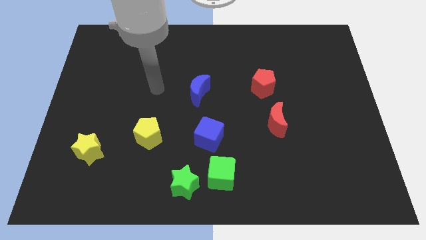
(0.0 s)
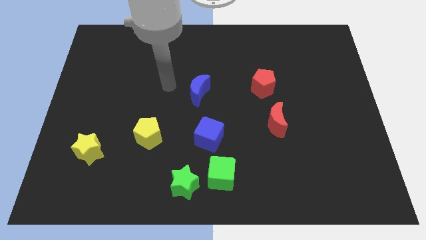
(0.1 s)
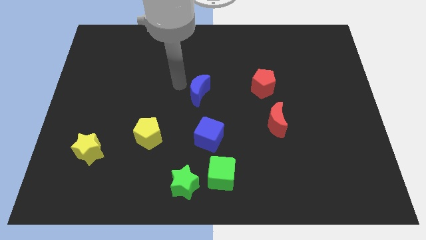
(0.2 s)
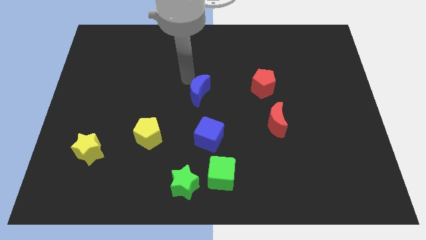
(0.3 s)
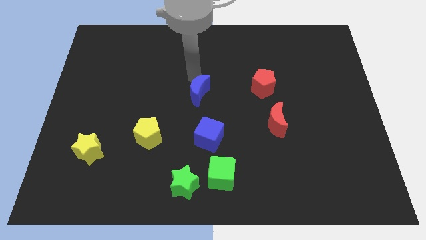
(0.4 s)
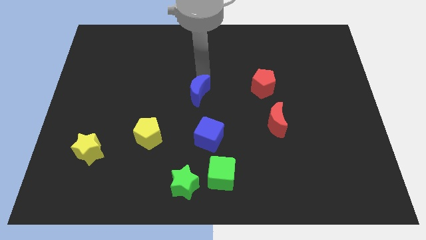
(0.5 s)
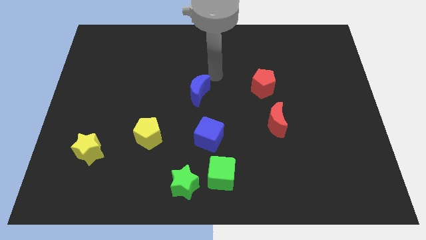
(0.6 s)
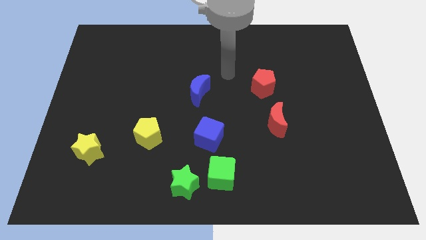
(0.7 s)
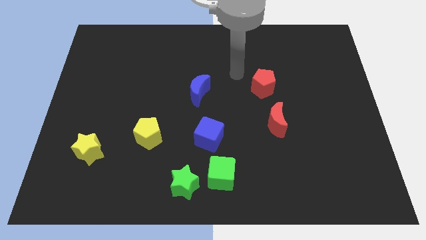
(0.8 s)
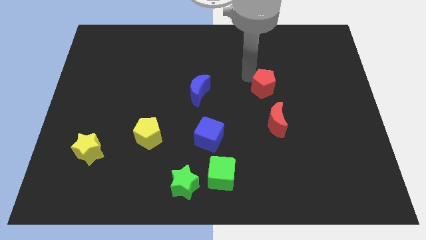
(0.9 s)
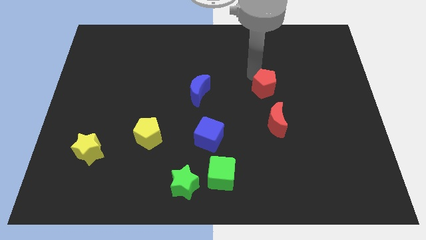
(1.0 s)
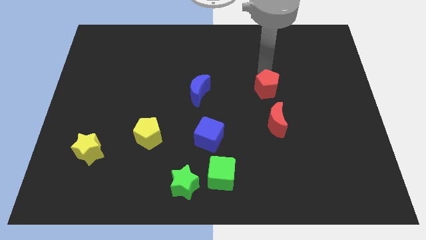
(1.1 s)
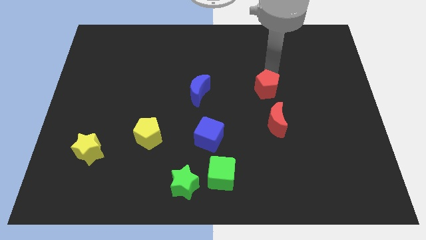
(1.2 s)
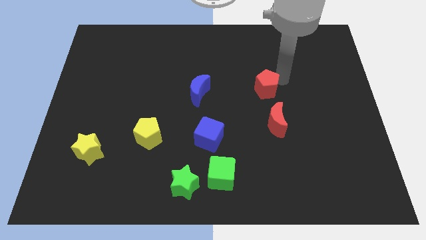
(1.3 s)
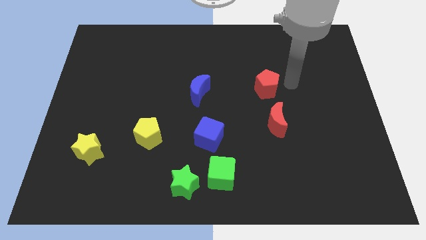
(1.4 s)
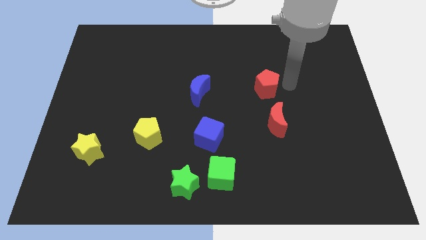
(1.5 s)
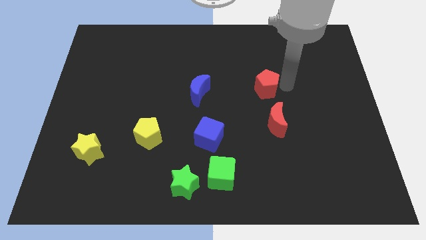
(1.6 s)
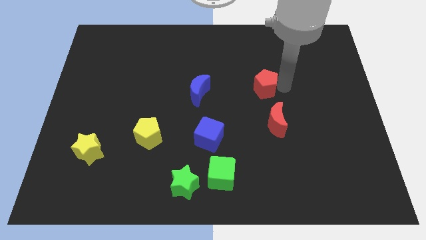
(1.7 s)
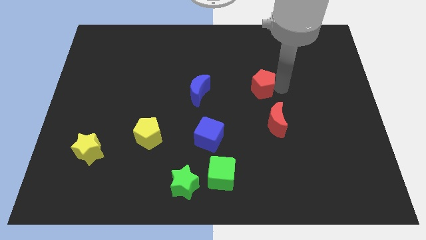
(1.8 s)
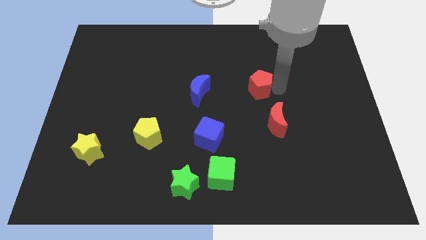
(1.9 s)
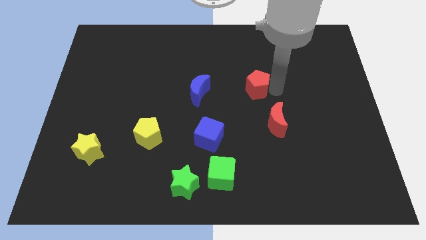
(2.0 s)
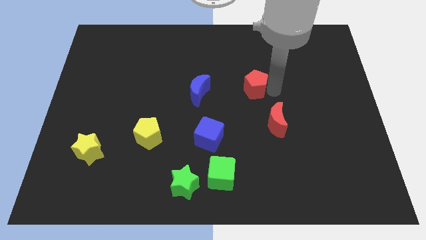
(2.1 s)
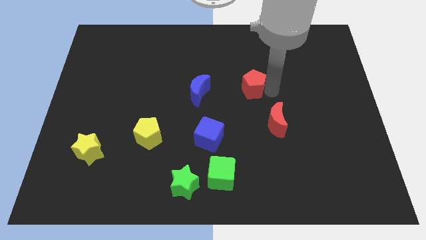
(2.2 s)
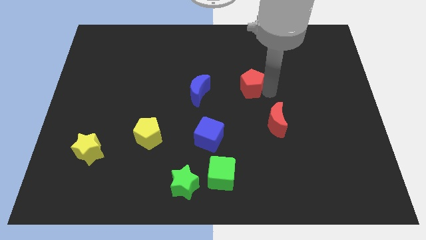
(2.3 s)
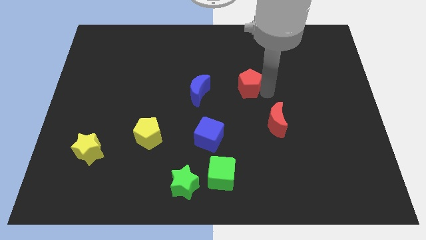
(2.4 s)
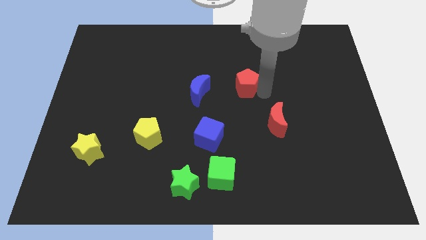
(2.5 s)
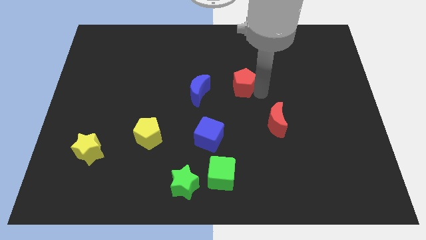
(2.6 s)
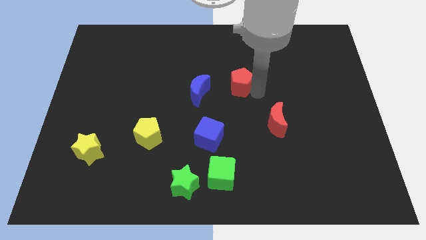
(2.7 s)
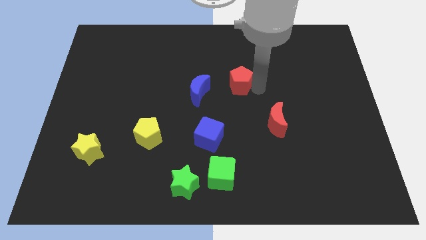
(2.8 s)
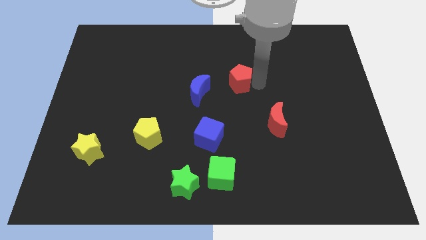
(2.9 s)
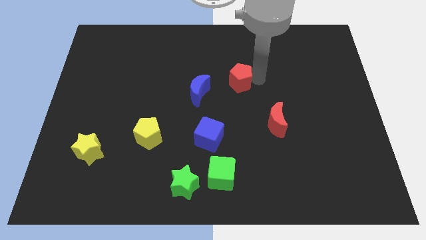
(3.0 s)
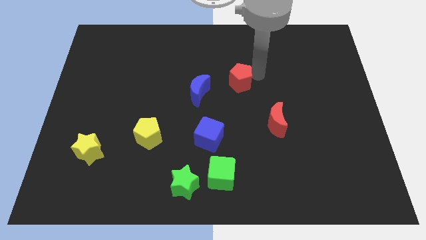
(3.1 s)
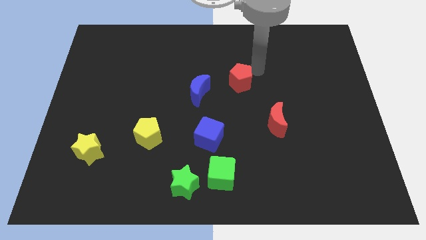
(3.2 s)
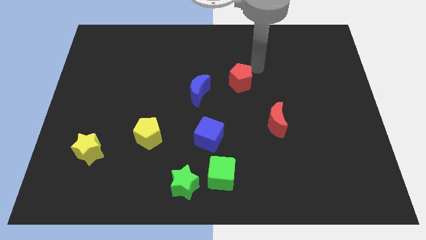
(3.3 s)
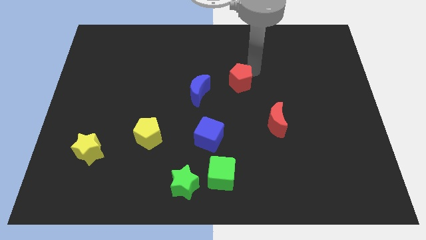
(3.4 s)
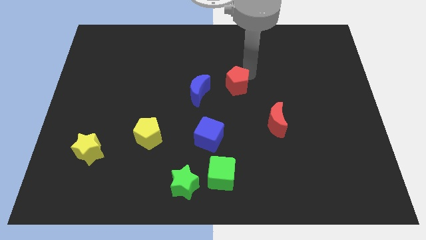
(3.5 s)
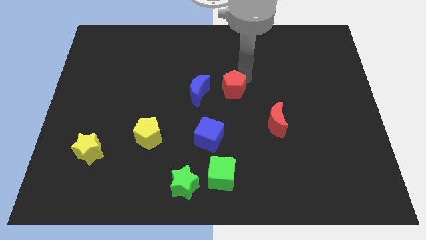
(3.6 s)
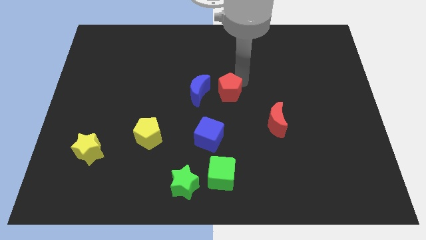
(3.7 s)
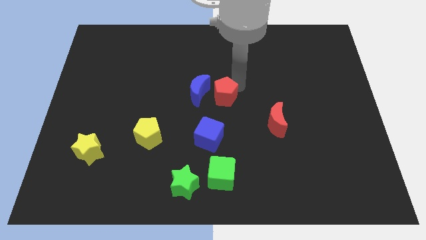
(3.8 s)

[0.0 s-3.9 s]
slide the red pentagon next to the blue moon

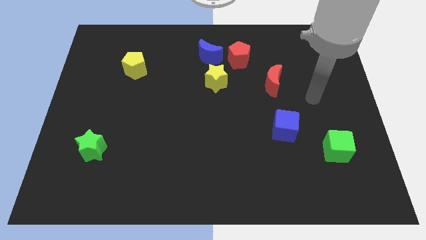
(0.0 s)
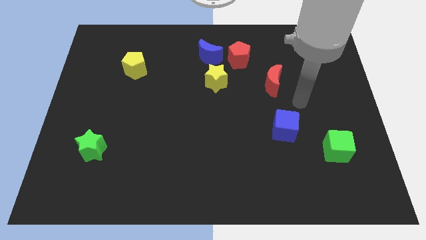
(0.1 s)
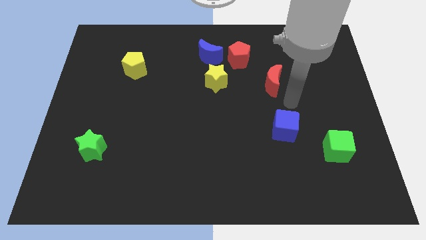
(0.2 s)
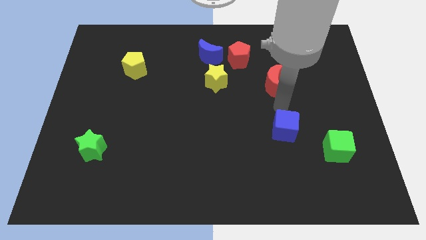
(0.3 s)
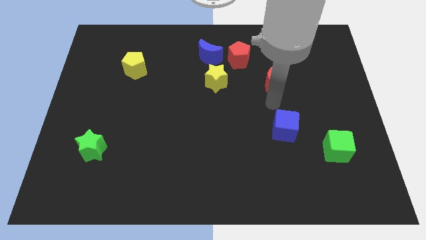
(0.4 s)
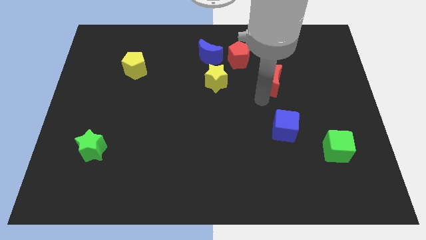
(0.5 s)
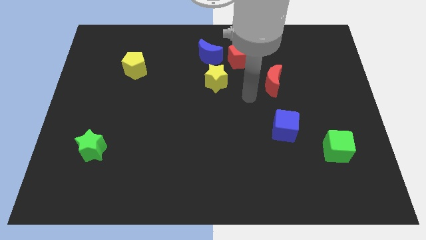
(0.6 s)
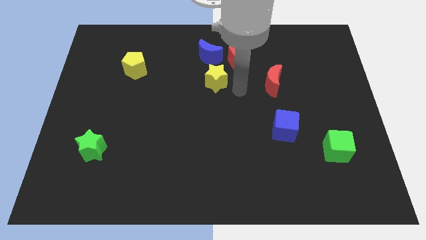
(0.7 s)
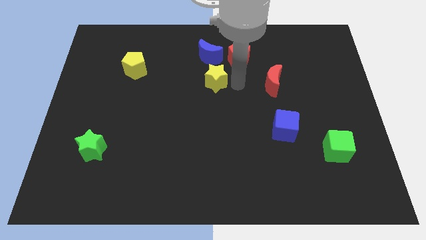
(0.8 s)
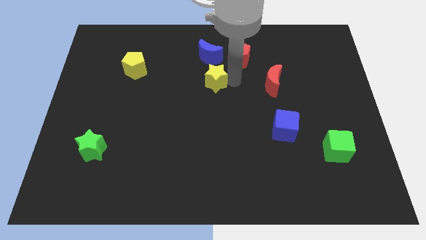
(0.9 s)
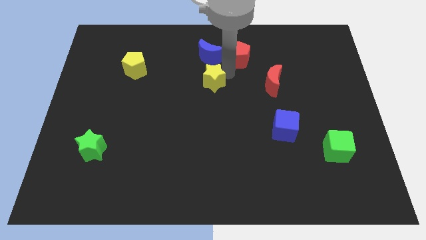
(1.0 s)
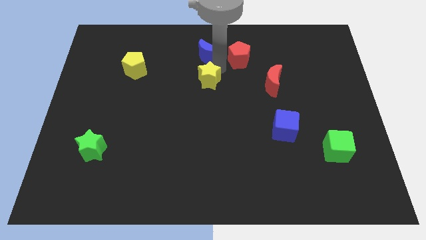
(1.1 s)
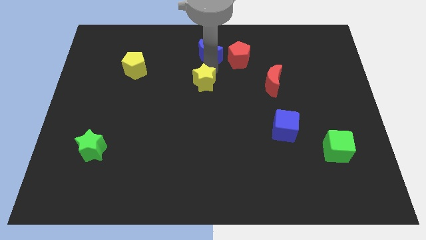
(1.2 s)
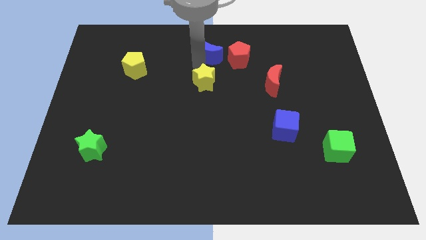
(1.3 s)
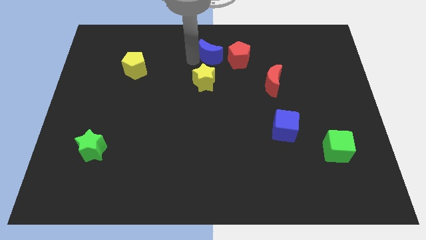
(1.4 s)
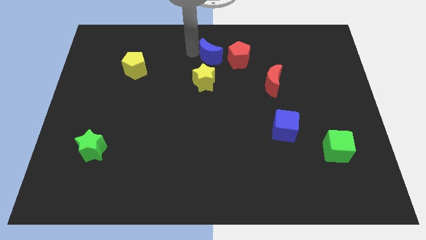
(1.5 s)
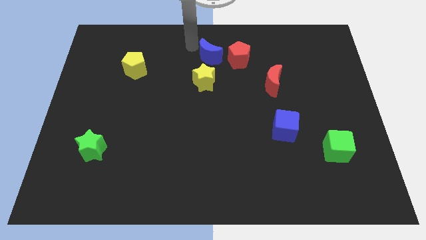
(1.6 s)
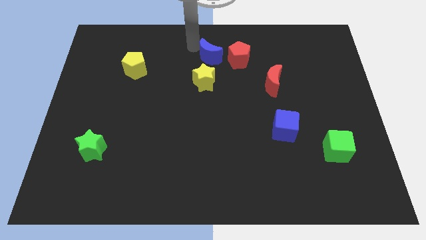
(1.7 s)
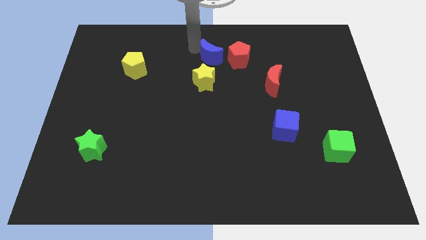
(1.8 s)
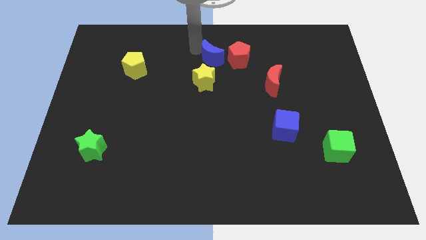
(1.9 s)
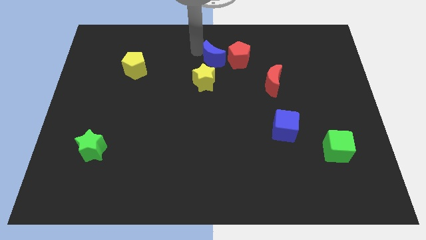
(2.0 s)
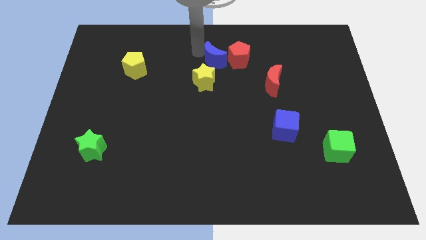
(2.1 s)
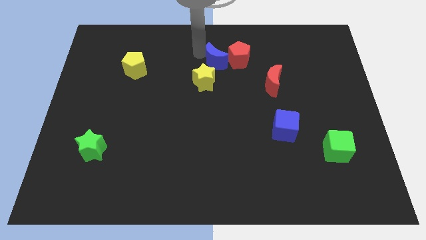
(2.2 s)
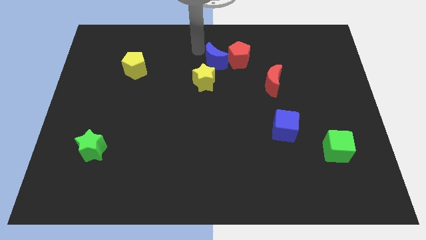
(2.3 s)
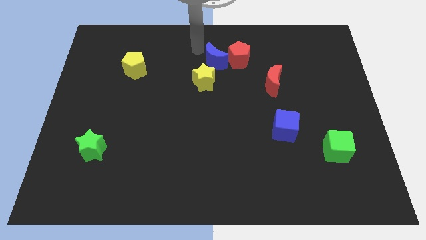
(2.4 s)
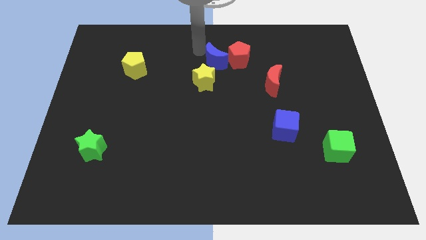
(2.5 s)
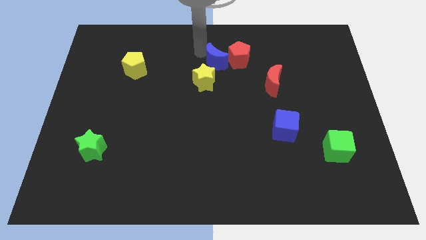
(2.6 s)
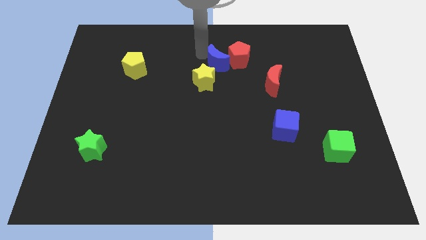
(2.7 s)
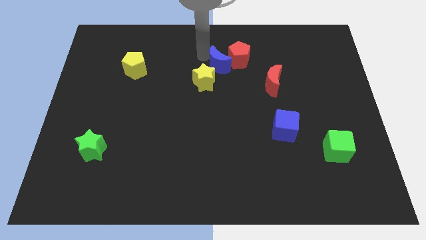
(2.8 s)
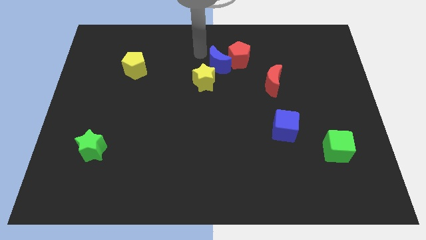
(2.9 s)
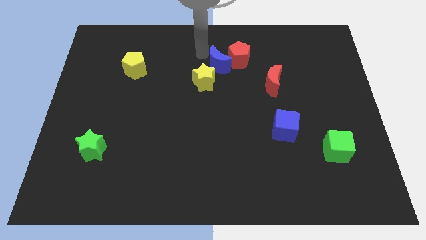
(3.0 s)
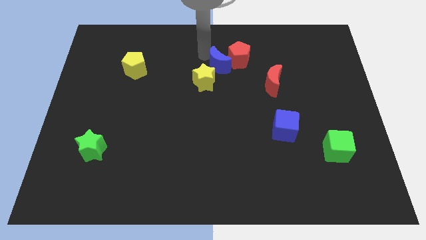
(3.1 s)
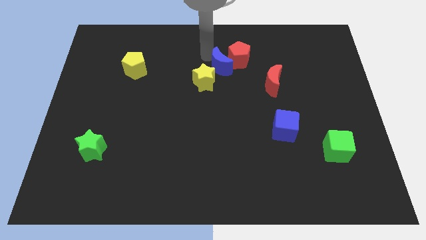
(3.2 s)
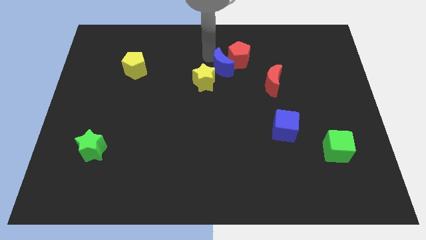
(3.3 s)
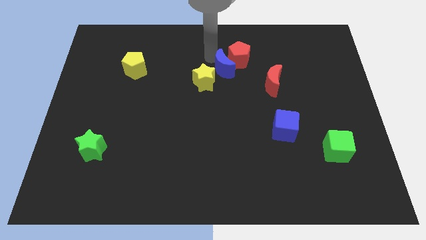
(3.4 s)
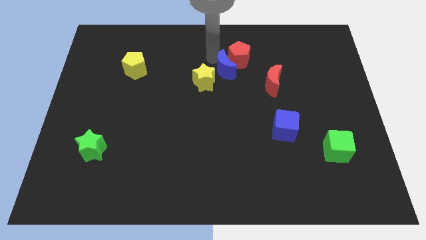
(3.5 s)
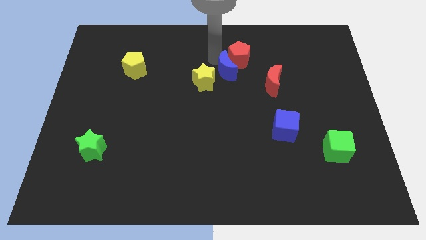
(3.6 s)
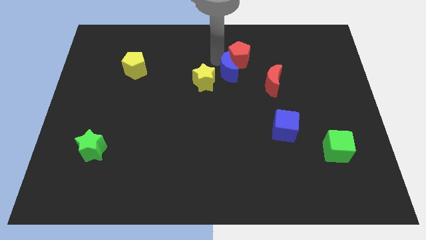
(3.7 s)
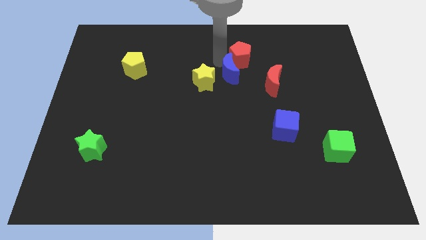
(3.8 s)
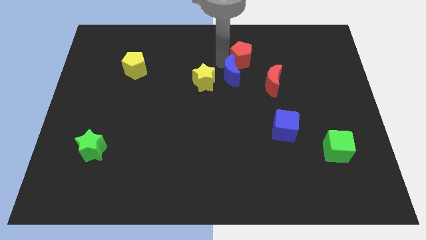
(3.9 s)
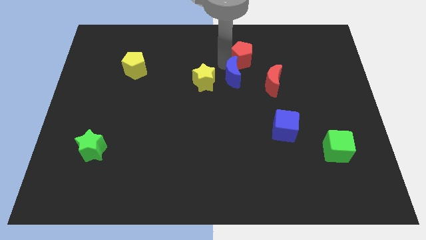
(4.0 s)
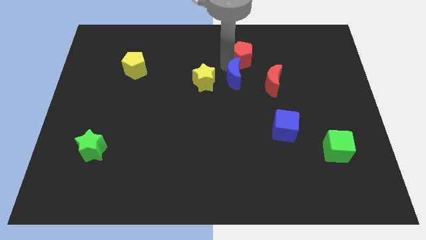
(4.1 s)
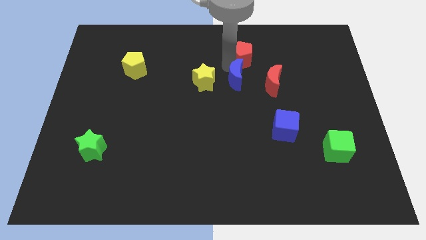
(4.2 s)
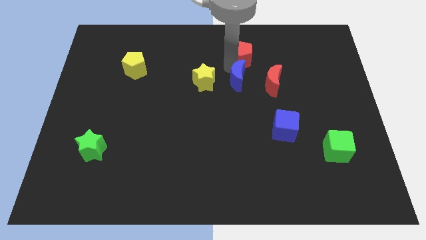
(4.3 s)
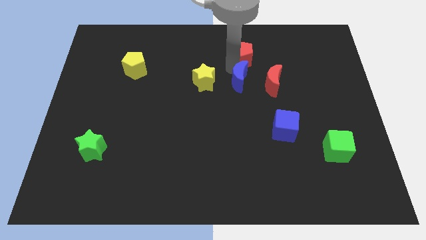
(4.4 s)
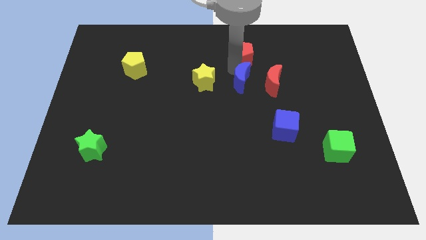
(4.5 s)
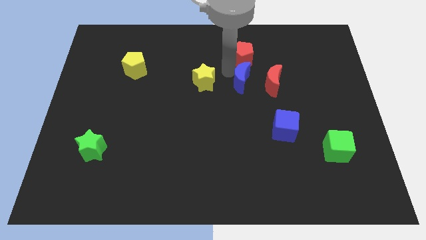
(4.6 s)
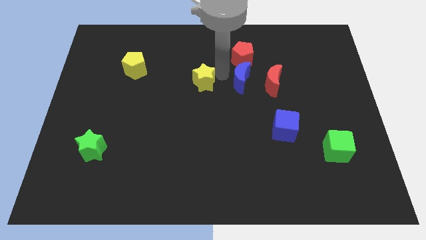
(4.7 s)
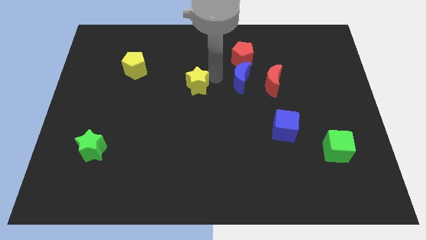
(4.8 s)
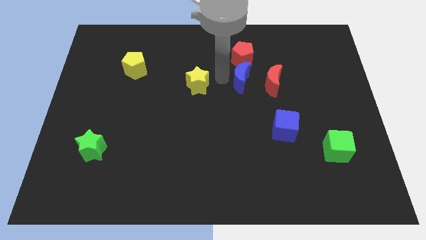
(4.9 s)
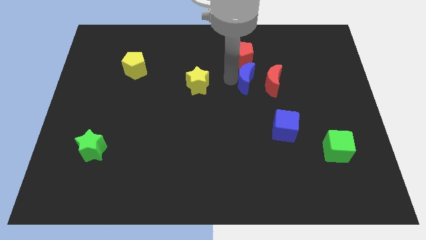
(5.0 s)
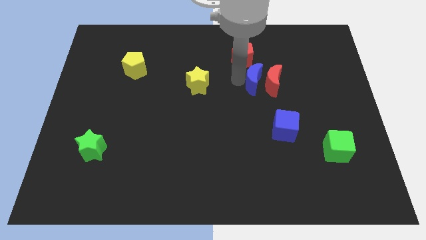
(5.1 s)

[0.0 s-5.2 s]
push the blue moon to the red moon
